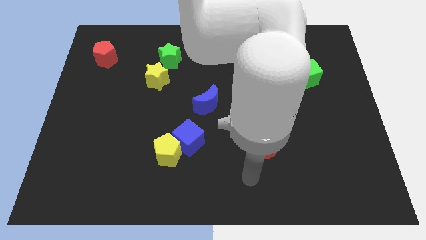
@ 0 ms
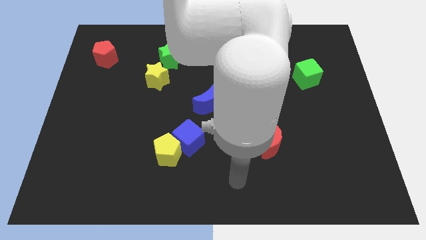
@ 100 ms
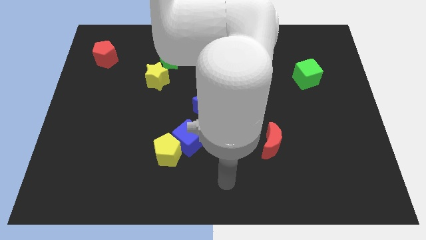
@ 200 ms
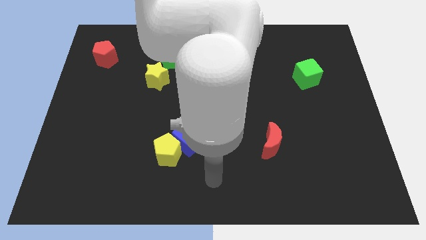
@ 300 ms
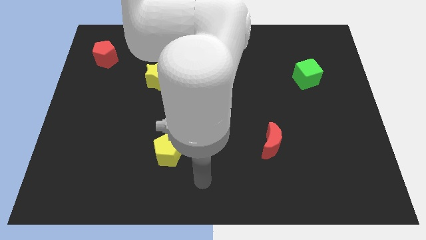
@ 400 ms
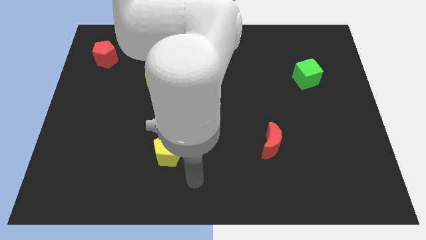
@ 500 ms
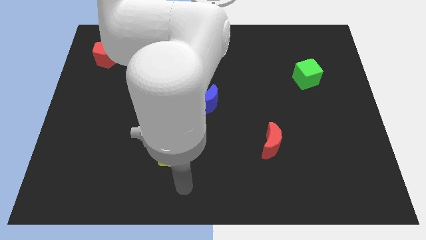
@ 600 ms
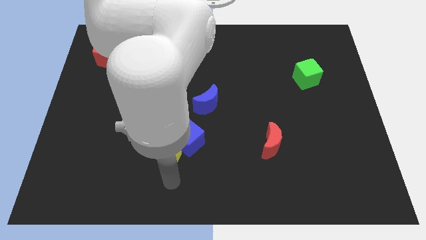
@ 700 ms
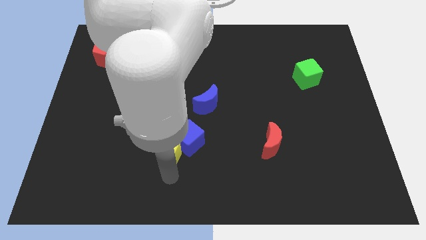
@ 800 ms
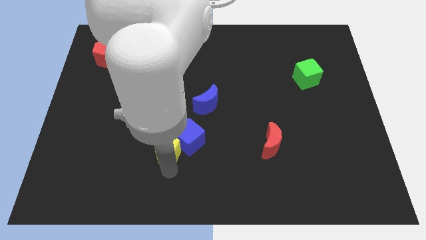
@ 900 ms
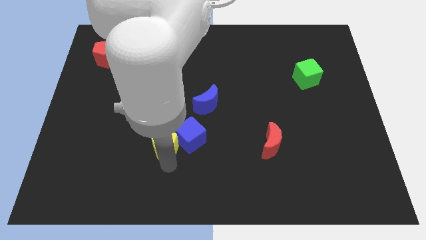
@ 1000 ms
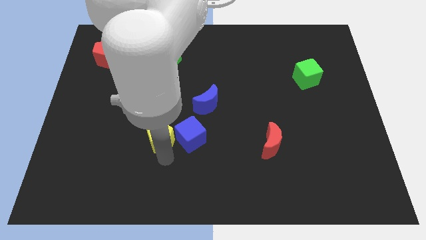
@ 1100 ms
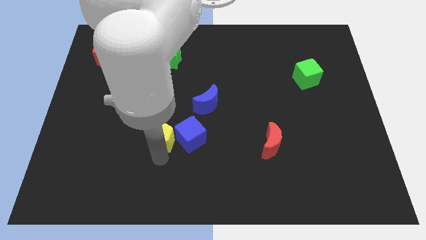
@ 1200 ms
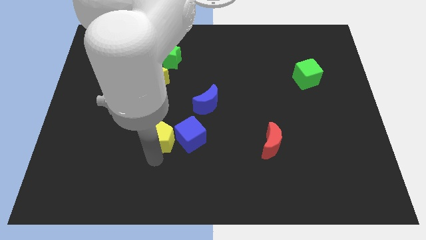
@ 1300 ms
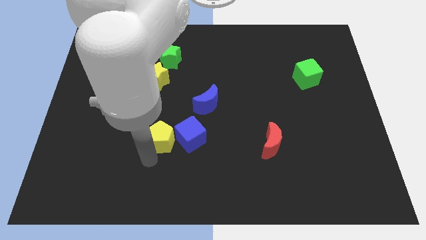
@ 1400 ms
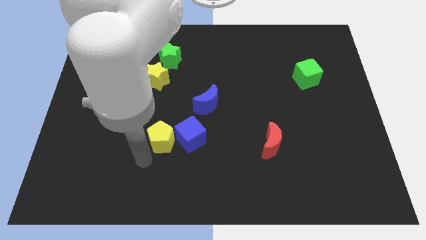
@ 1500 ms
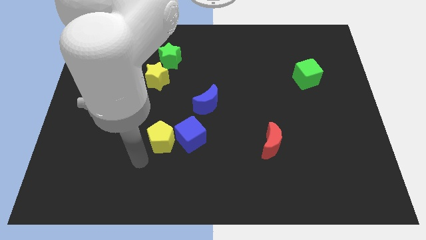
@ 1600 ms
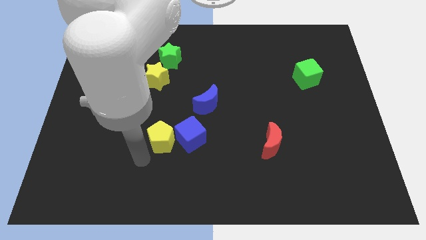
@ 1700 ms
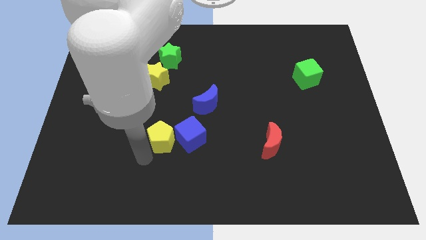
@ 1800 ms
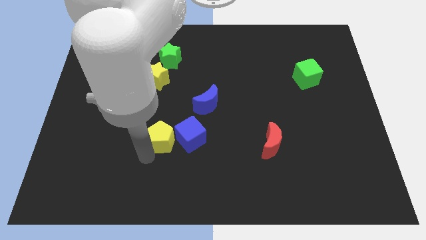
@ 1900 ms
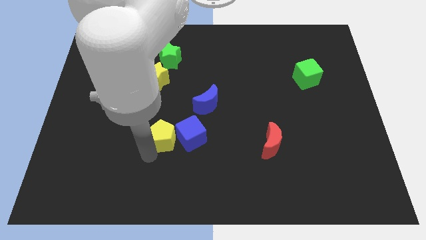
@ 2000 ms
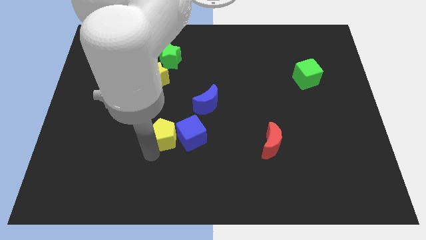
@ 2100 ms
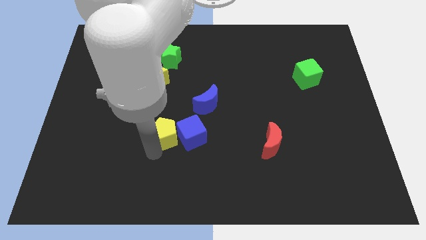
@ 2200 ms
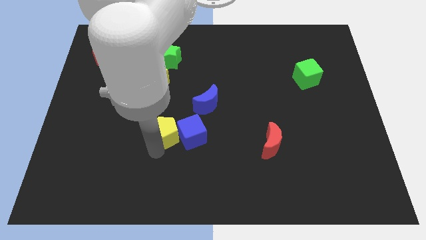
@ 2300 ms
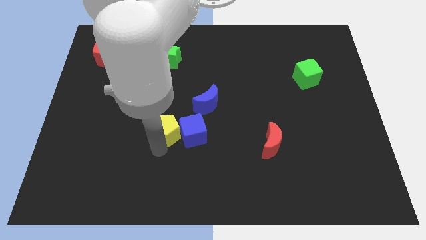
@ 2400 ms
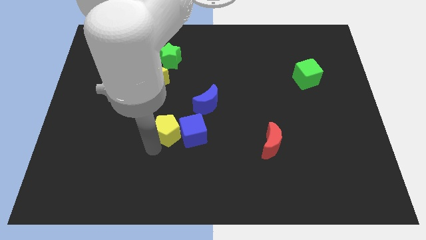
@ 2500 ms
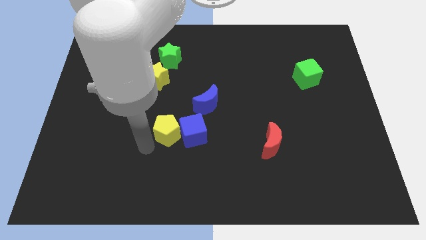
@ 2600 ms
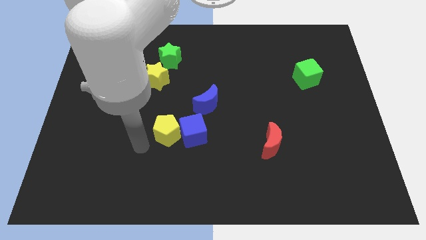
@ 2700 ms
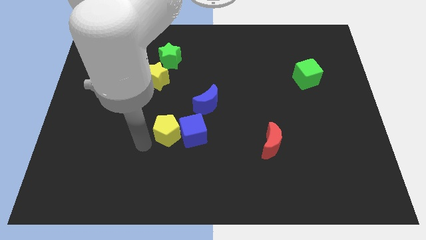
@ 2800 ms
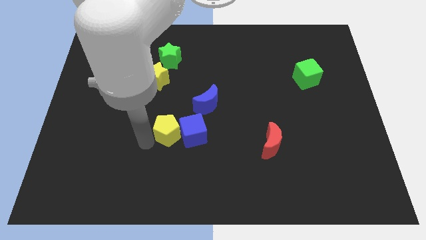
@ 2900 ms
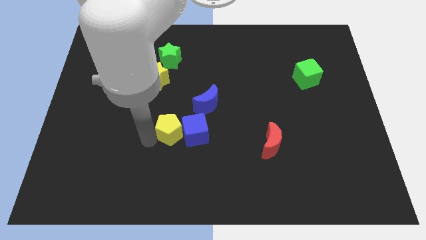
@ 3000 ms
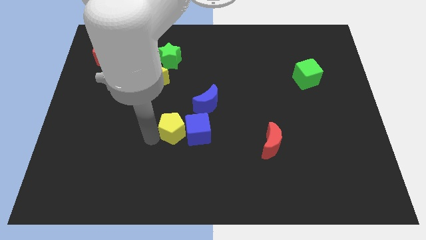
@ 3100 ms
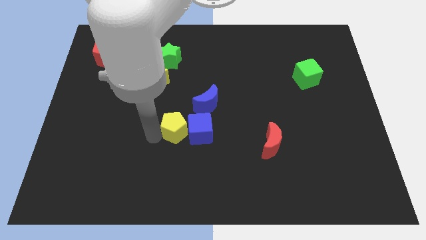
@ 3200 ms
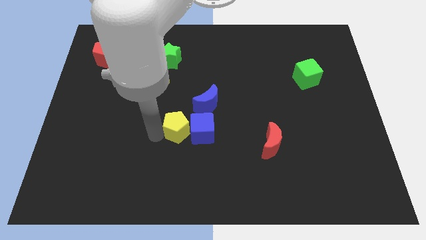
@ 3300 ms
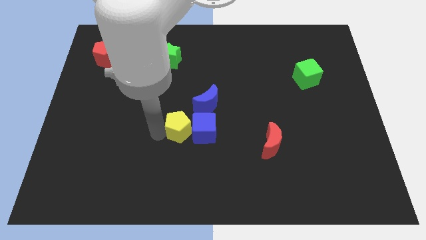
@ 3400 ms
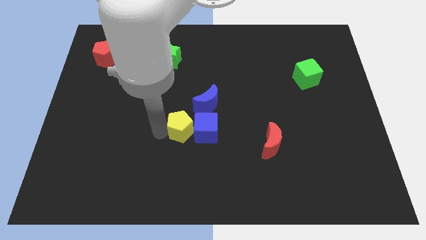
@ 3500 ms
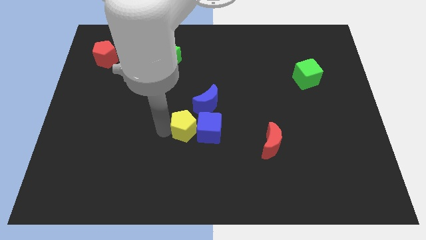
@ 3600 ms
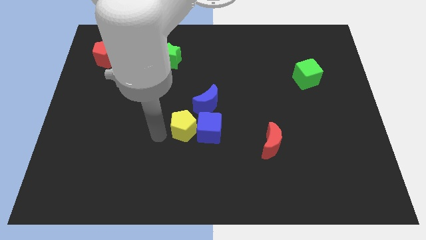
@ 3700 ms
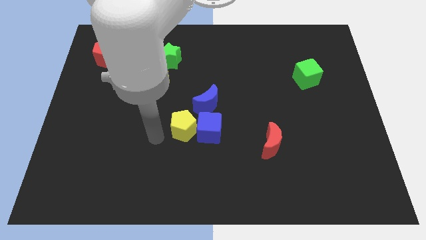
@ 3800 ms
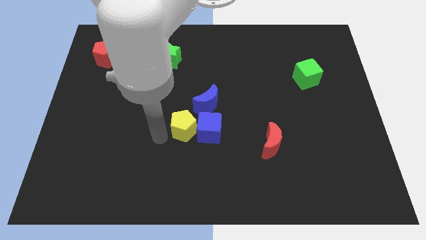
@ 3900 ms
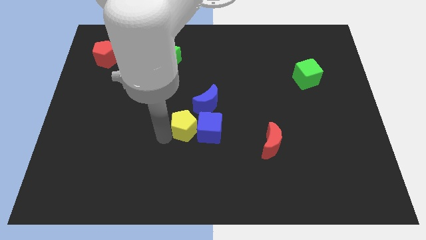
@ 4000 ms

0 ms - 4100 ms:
slightly move the yellow pentagon upwards and then right

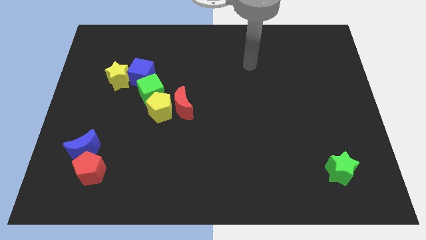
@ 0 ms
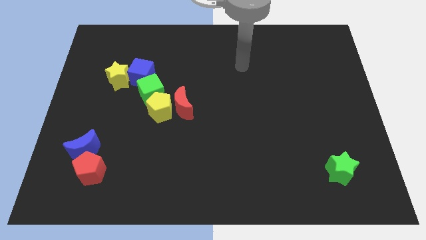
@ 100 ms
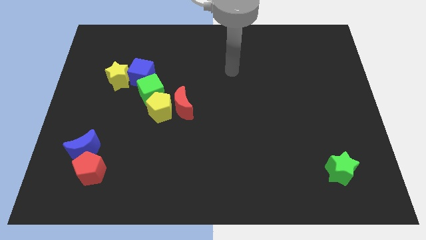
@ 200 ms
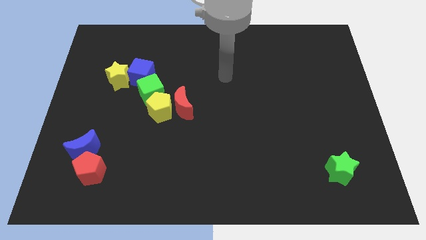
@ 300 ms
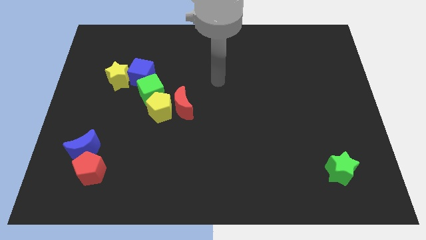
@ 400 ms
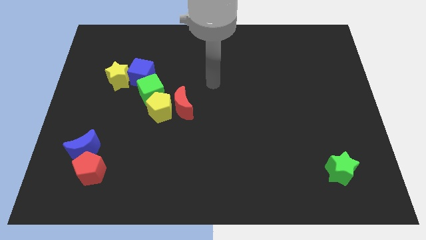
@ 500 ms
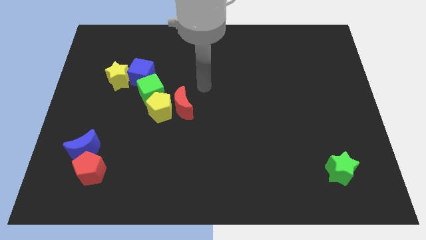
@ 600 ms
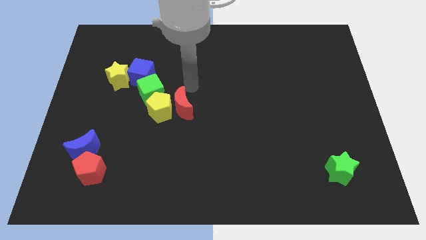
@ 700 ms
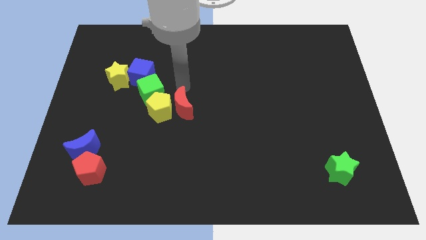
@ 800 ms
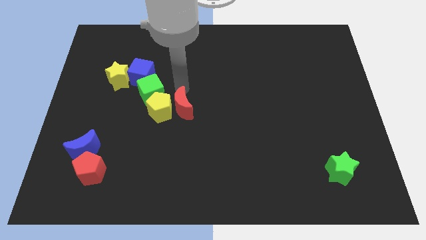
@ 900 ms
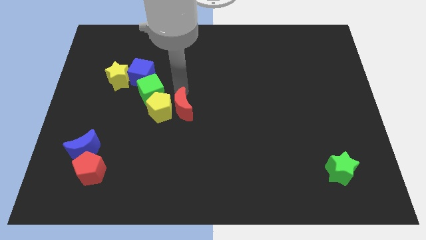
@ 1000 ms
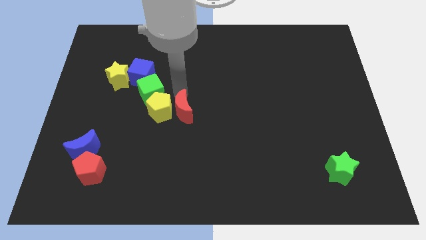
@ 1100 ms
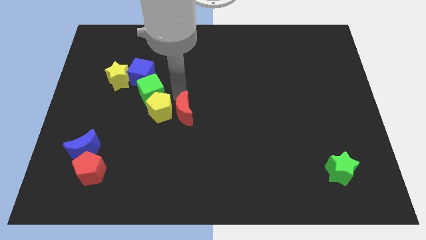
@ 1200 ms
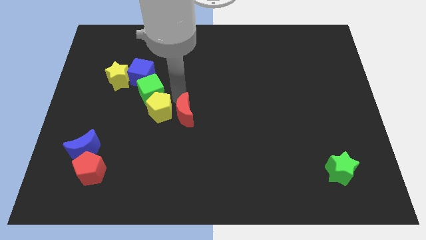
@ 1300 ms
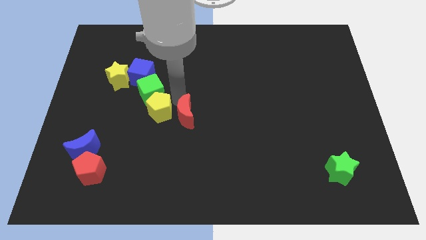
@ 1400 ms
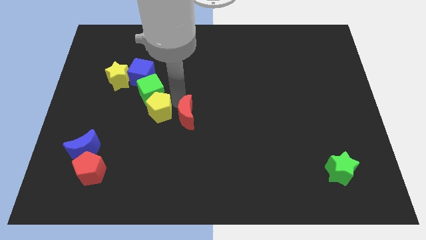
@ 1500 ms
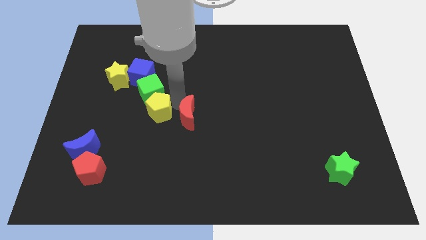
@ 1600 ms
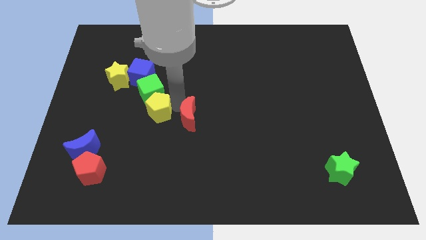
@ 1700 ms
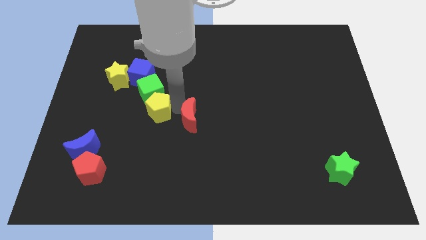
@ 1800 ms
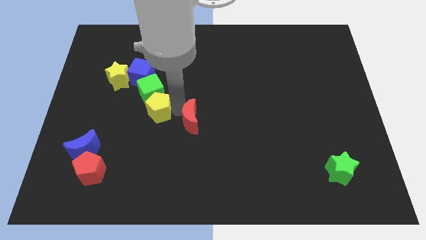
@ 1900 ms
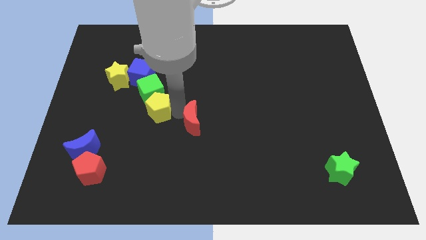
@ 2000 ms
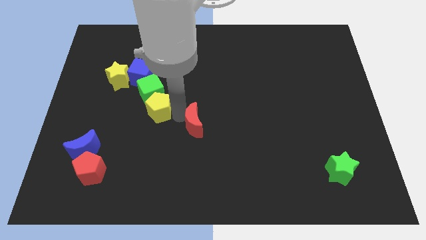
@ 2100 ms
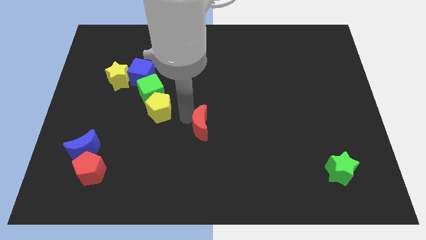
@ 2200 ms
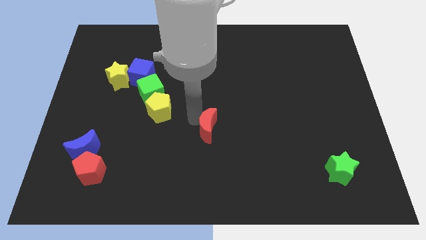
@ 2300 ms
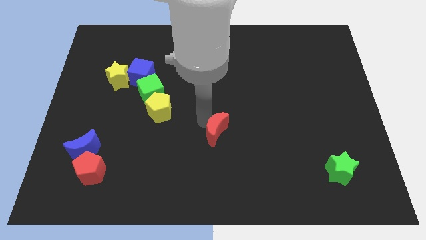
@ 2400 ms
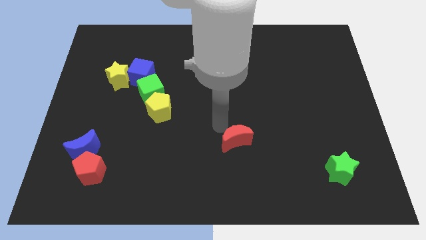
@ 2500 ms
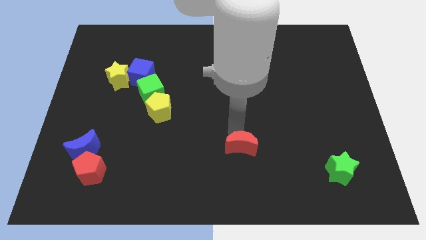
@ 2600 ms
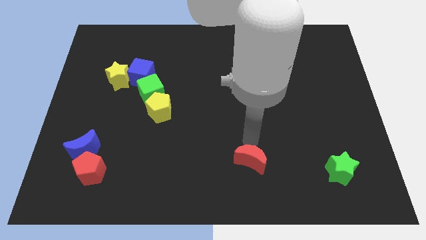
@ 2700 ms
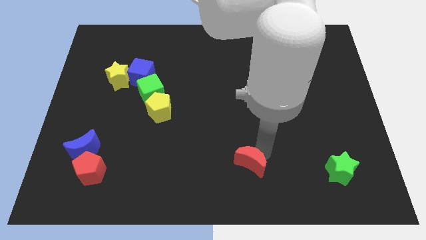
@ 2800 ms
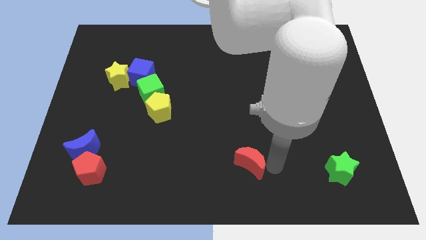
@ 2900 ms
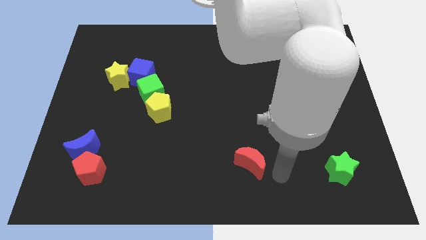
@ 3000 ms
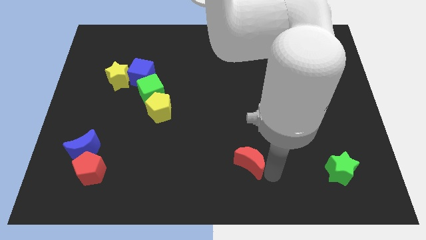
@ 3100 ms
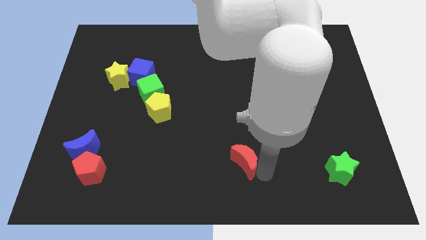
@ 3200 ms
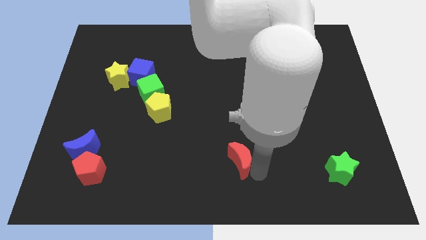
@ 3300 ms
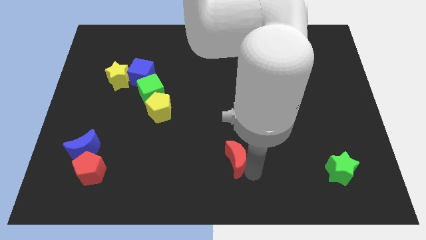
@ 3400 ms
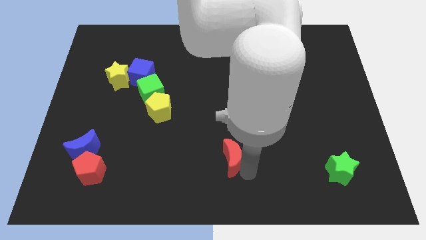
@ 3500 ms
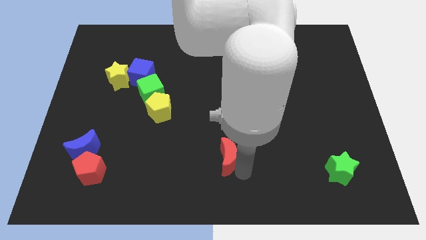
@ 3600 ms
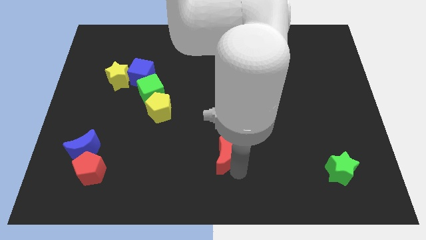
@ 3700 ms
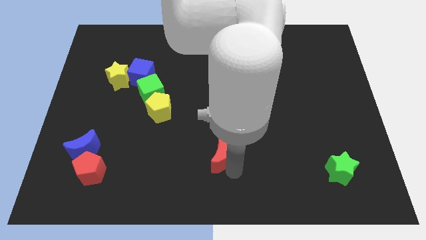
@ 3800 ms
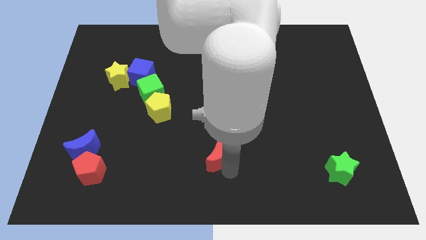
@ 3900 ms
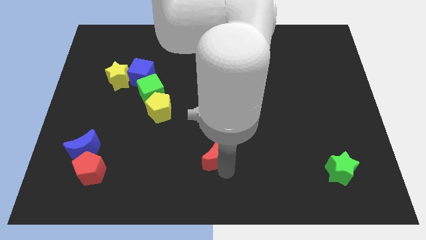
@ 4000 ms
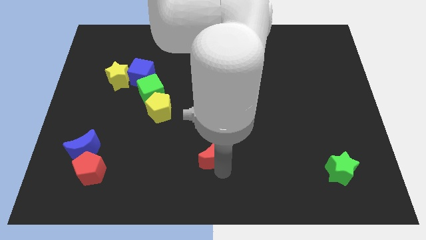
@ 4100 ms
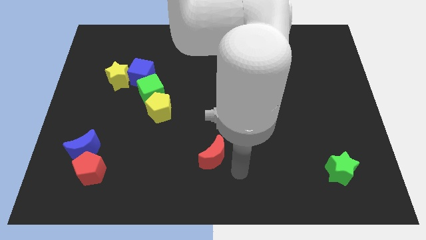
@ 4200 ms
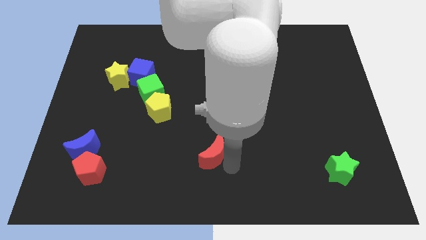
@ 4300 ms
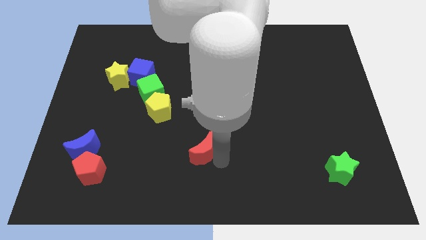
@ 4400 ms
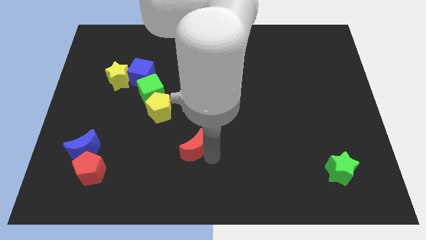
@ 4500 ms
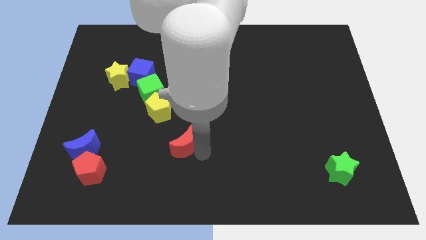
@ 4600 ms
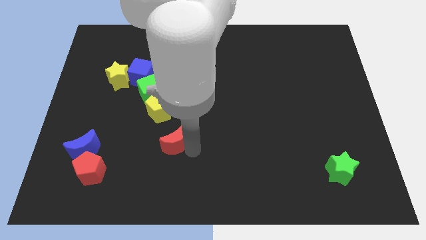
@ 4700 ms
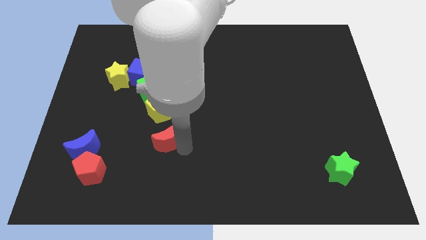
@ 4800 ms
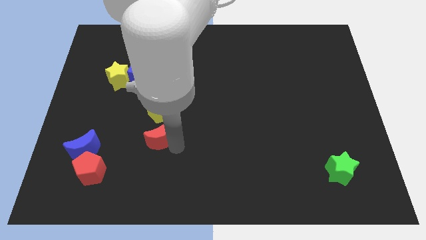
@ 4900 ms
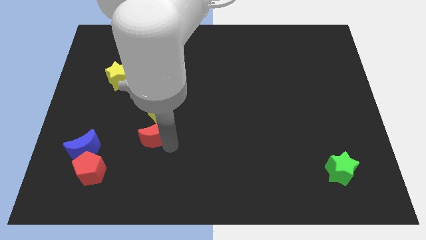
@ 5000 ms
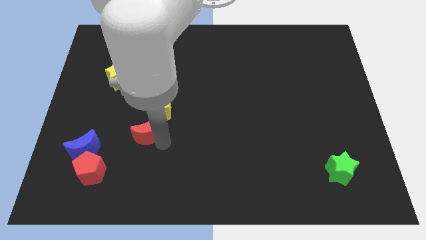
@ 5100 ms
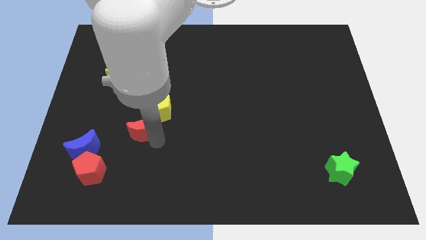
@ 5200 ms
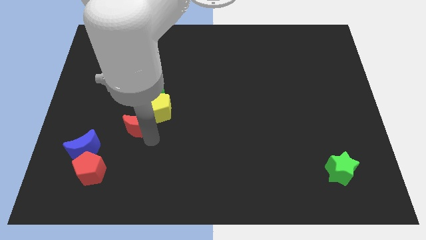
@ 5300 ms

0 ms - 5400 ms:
slide the red moon a little bit left
